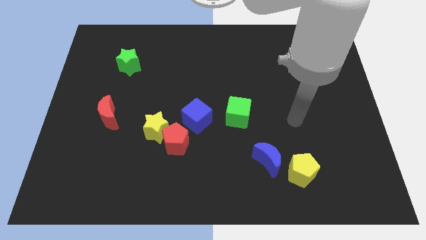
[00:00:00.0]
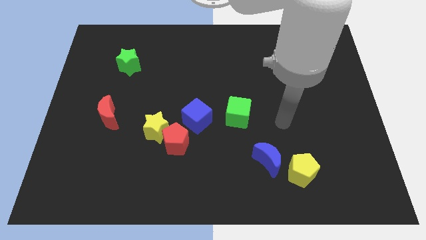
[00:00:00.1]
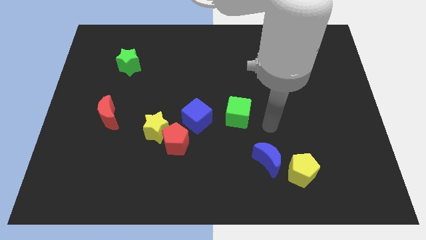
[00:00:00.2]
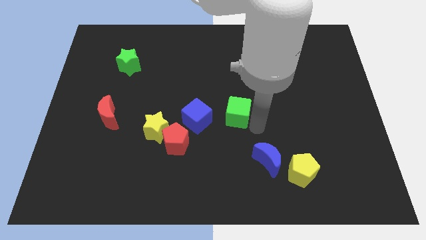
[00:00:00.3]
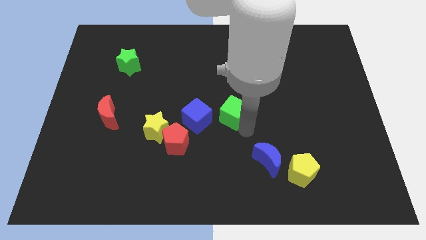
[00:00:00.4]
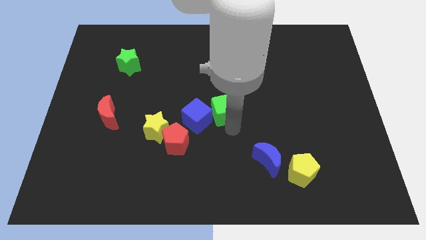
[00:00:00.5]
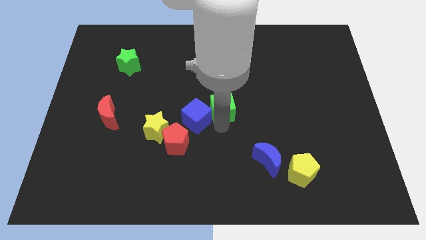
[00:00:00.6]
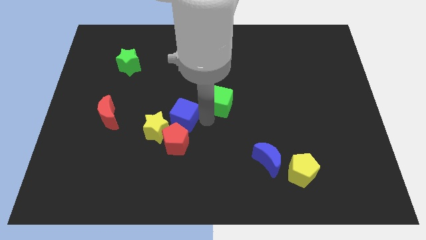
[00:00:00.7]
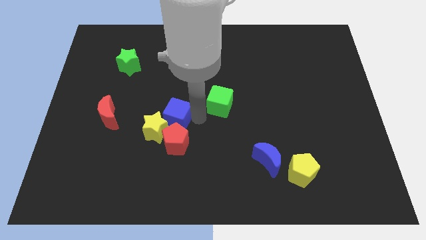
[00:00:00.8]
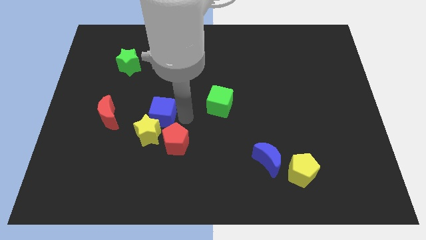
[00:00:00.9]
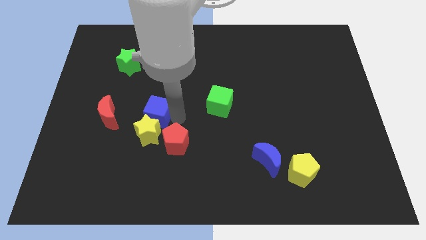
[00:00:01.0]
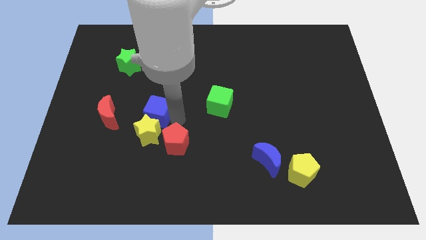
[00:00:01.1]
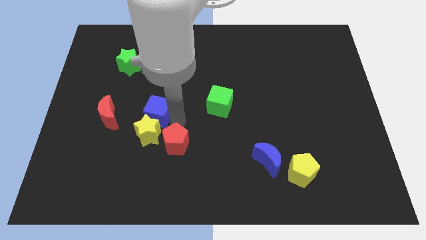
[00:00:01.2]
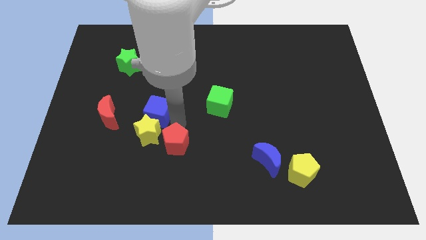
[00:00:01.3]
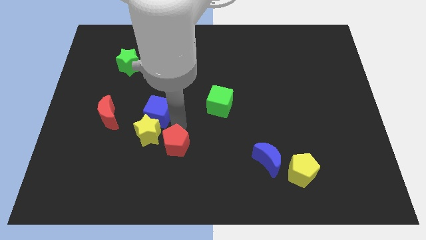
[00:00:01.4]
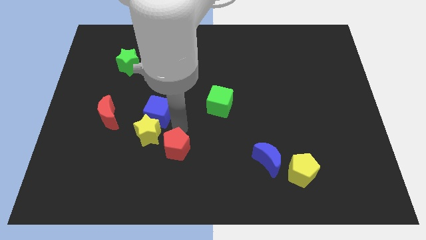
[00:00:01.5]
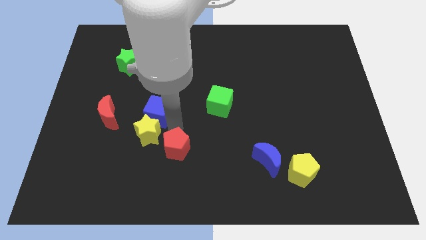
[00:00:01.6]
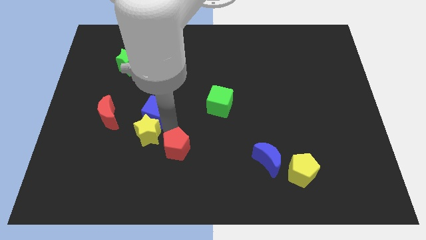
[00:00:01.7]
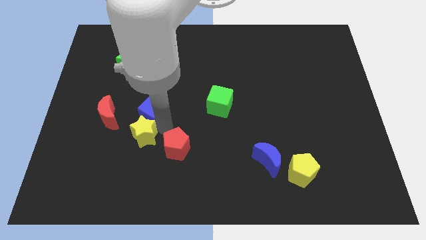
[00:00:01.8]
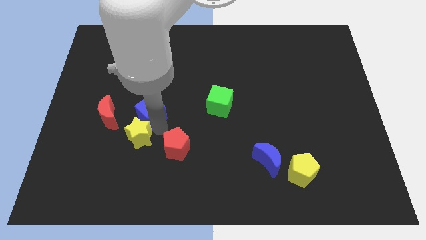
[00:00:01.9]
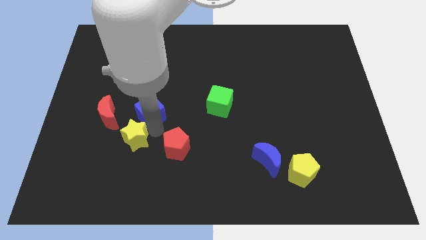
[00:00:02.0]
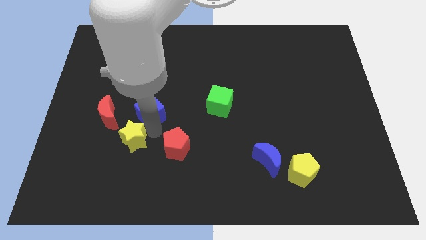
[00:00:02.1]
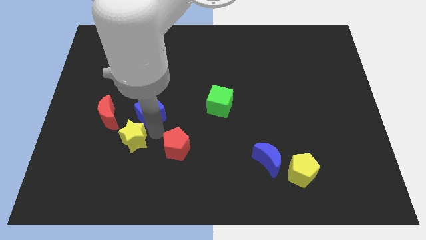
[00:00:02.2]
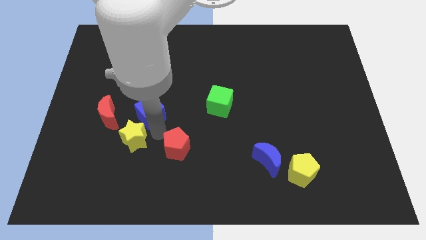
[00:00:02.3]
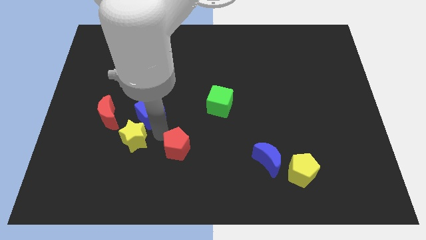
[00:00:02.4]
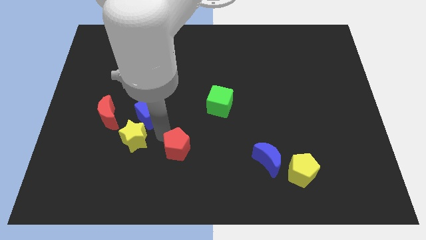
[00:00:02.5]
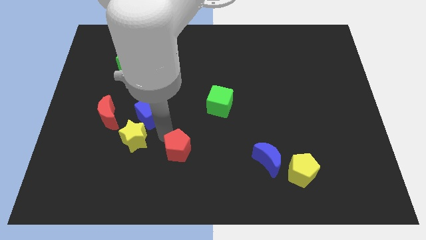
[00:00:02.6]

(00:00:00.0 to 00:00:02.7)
move the red pentagon away from the yellow star and blue cube

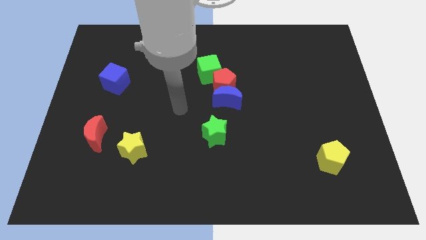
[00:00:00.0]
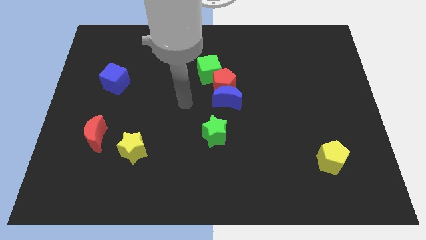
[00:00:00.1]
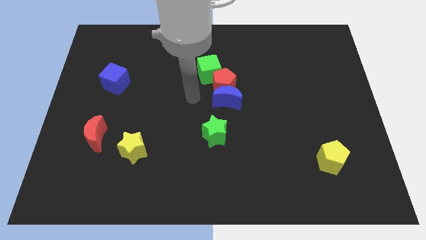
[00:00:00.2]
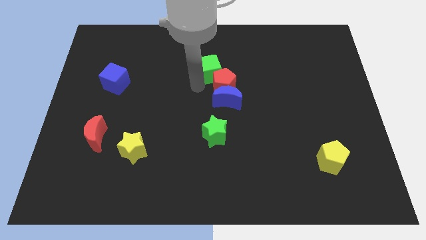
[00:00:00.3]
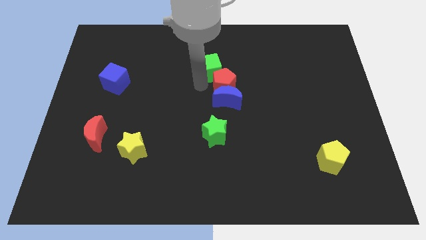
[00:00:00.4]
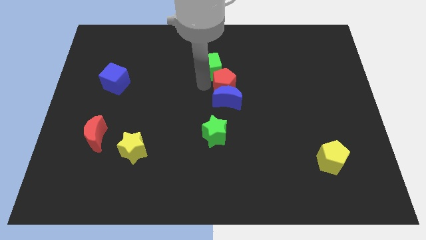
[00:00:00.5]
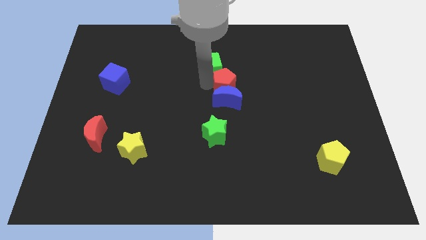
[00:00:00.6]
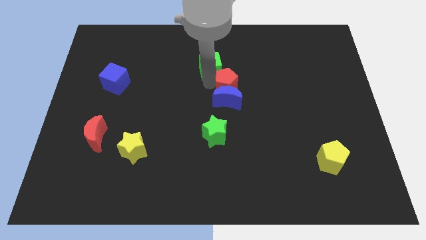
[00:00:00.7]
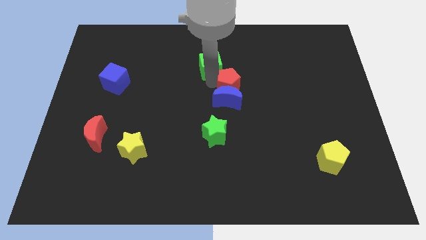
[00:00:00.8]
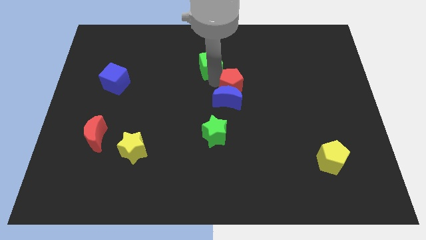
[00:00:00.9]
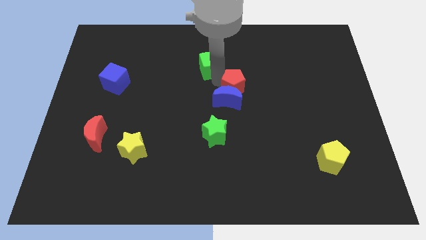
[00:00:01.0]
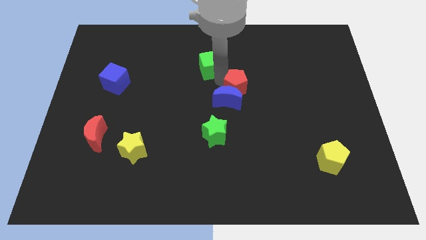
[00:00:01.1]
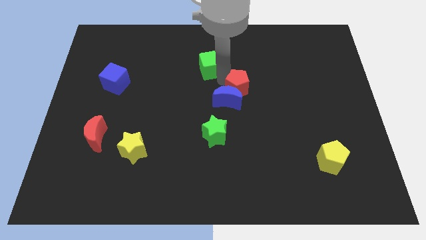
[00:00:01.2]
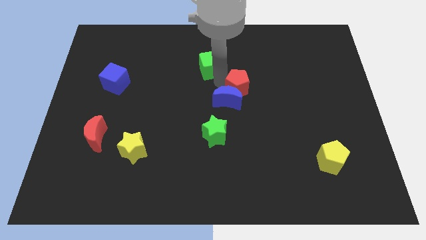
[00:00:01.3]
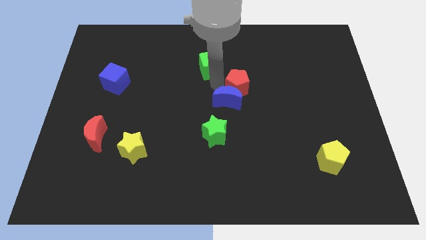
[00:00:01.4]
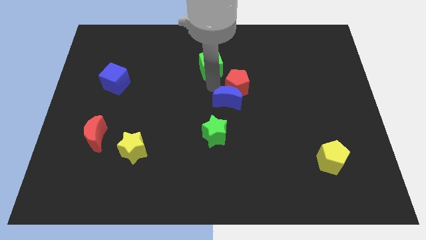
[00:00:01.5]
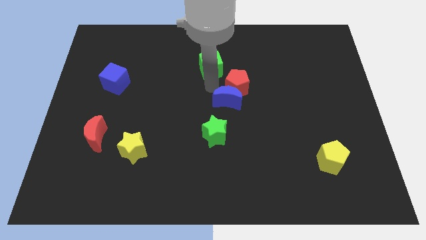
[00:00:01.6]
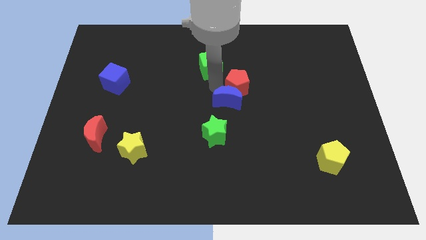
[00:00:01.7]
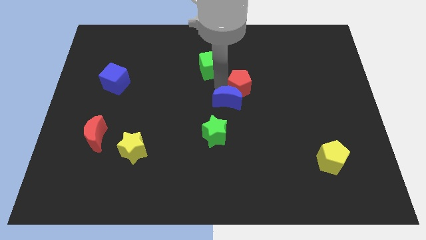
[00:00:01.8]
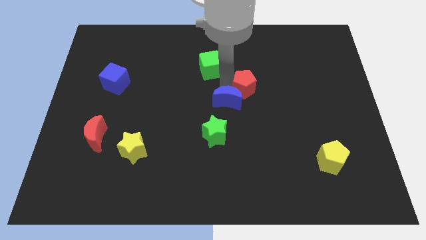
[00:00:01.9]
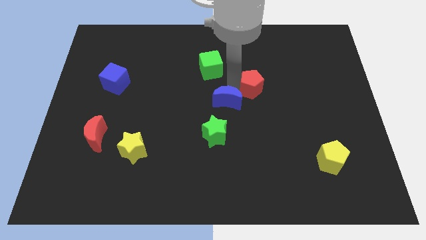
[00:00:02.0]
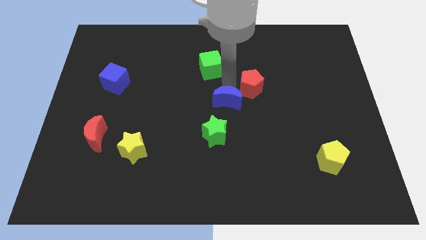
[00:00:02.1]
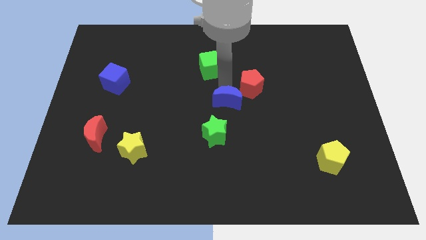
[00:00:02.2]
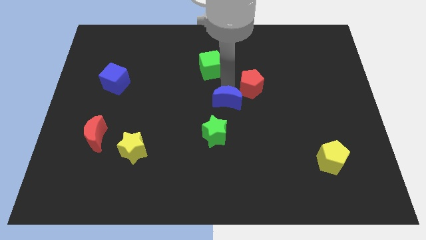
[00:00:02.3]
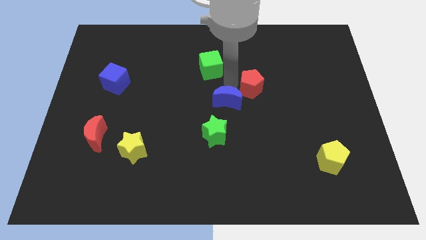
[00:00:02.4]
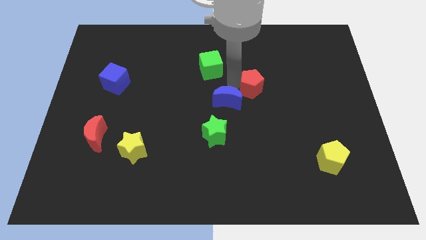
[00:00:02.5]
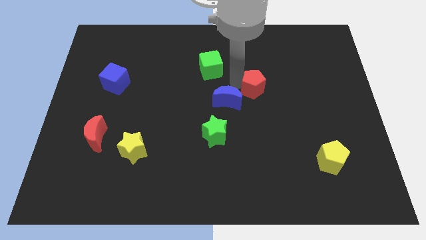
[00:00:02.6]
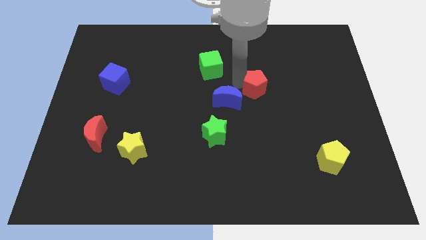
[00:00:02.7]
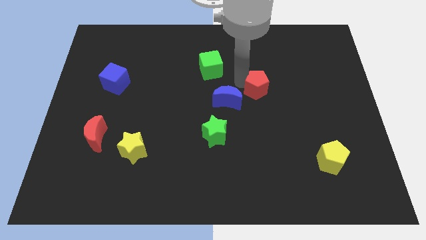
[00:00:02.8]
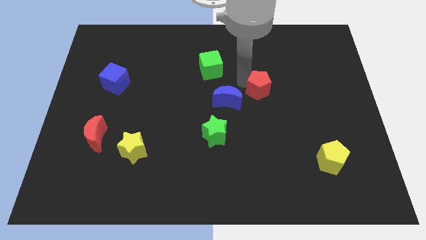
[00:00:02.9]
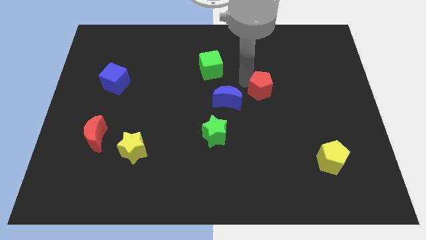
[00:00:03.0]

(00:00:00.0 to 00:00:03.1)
separate the red pentagon from the blue moon and green cube

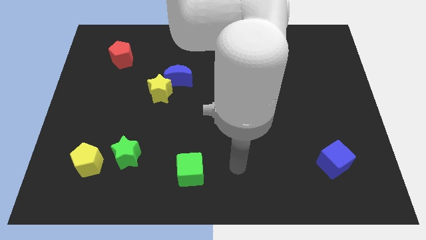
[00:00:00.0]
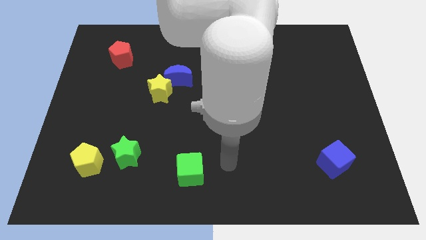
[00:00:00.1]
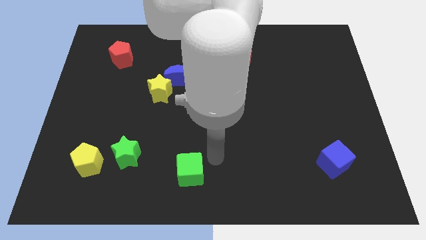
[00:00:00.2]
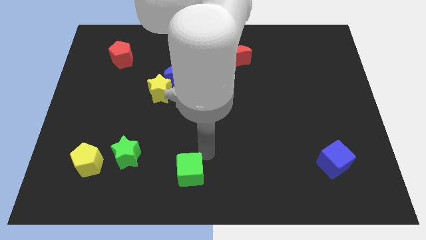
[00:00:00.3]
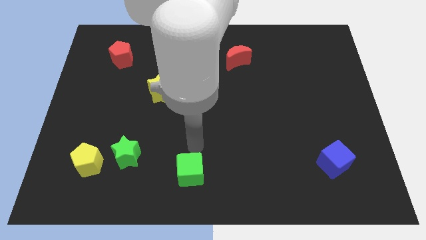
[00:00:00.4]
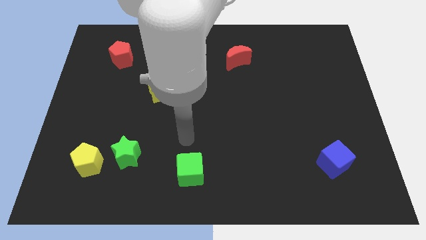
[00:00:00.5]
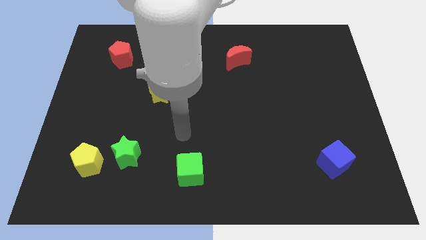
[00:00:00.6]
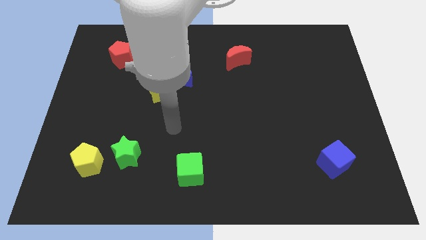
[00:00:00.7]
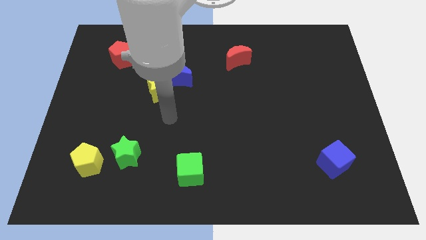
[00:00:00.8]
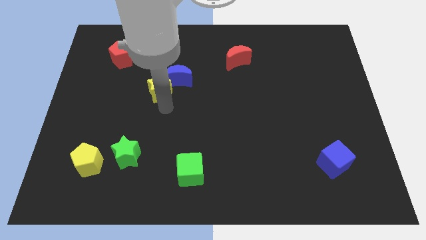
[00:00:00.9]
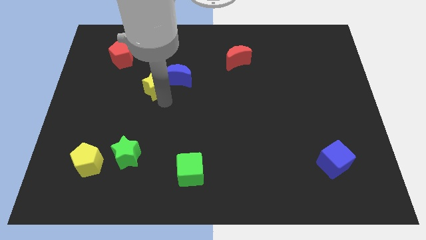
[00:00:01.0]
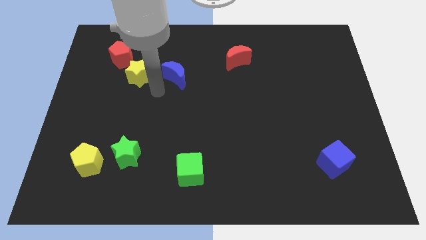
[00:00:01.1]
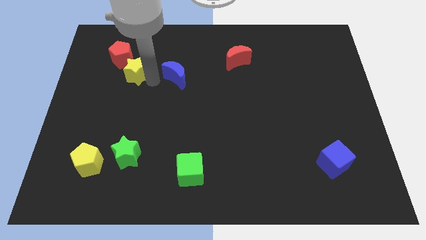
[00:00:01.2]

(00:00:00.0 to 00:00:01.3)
pull the blue moon apart from the yellow star

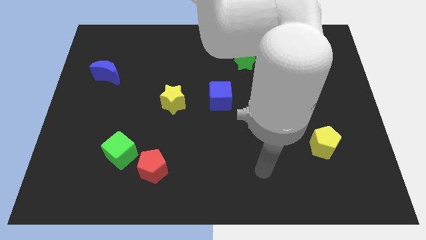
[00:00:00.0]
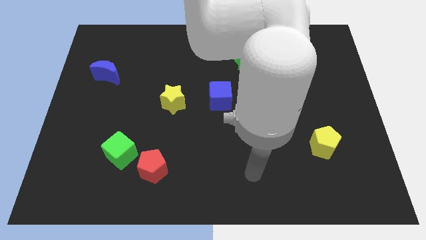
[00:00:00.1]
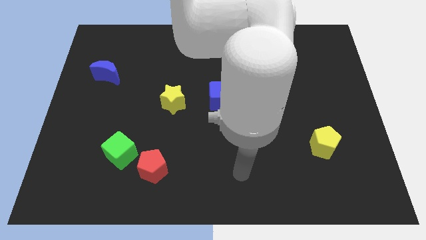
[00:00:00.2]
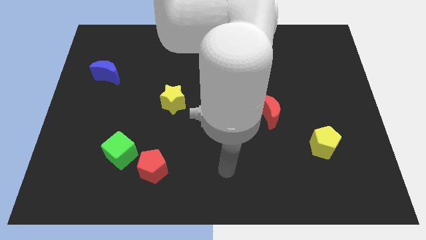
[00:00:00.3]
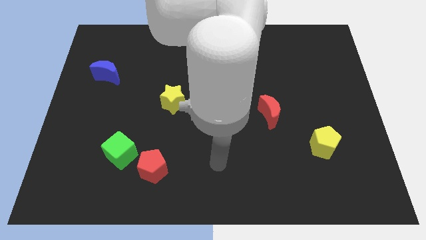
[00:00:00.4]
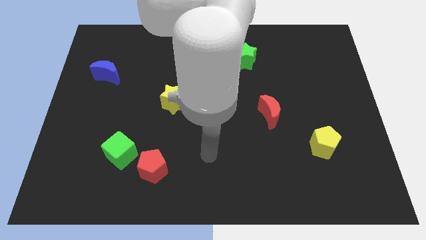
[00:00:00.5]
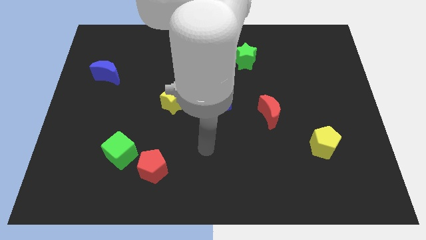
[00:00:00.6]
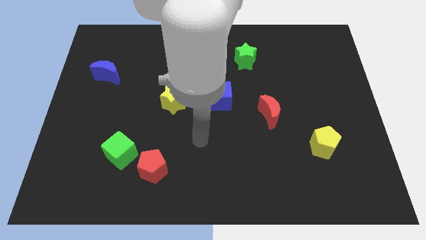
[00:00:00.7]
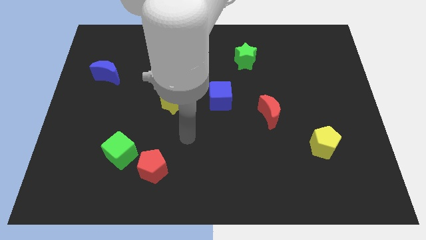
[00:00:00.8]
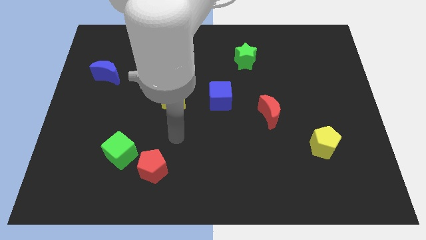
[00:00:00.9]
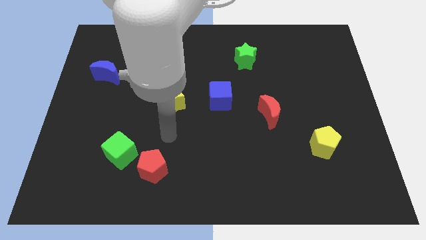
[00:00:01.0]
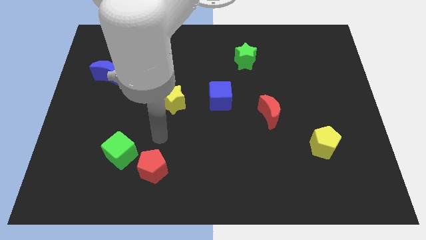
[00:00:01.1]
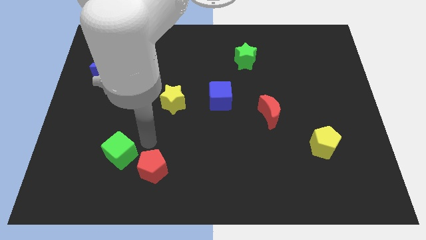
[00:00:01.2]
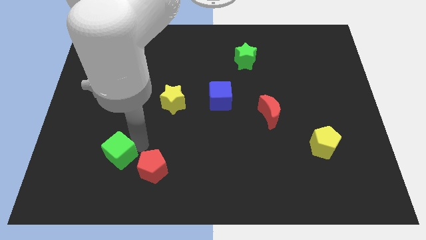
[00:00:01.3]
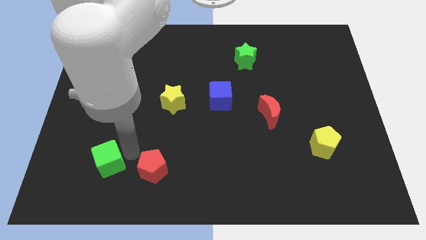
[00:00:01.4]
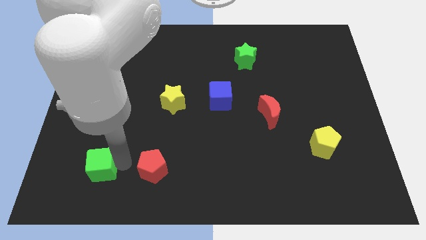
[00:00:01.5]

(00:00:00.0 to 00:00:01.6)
pull the red pentagon apart from the green cube

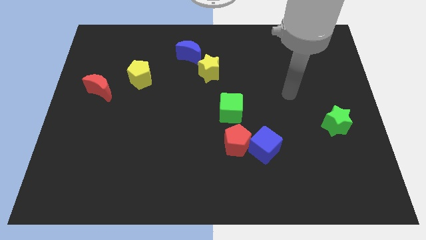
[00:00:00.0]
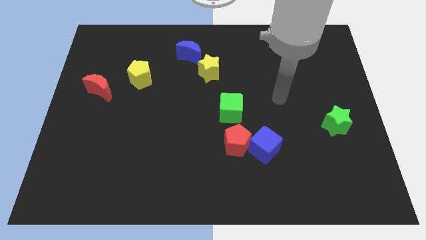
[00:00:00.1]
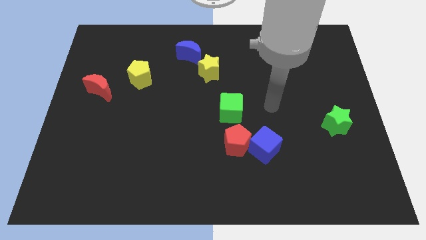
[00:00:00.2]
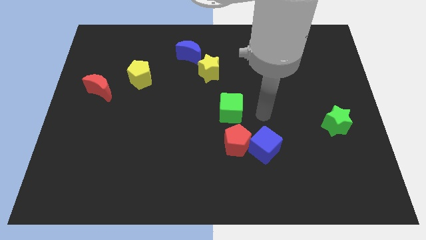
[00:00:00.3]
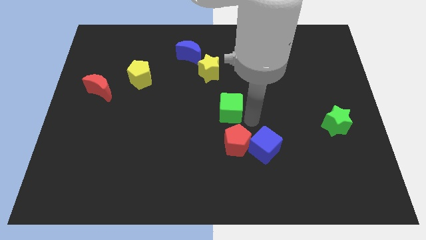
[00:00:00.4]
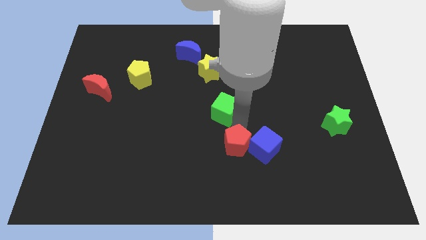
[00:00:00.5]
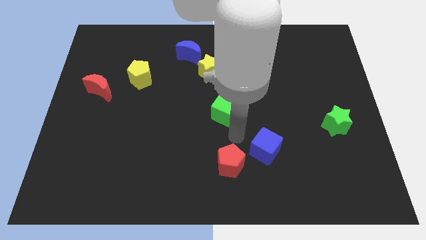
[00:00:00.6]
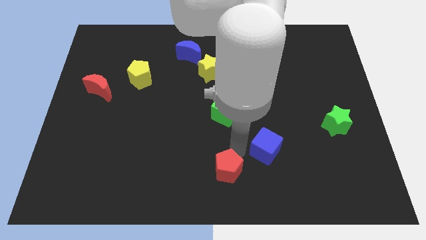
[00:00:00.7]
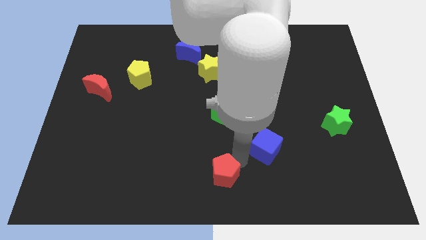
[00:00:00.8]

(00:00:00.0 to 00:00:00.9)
separate the blue cube from the red pentagon
